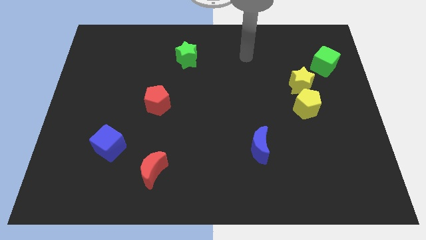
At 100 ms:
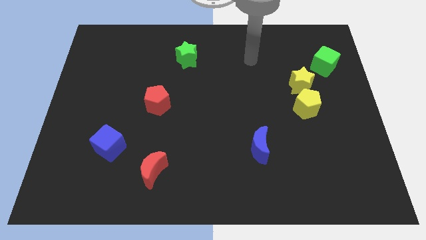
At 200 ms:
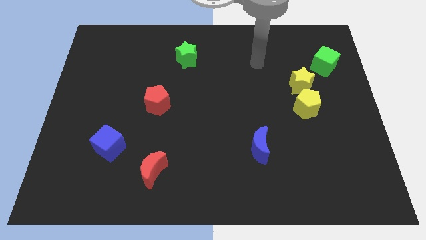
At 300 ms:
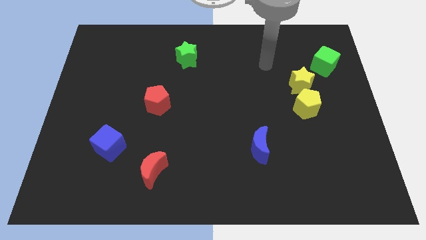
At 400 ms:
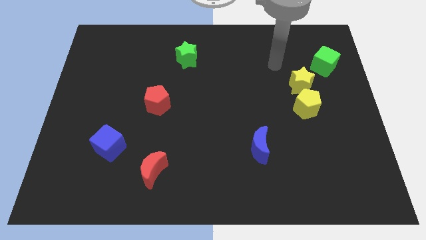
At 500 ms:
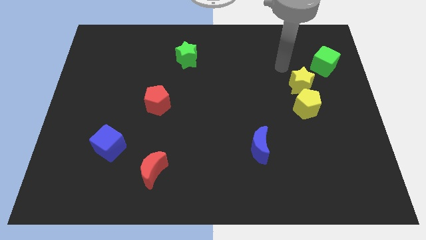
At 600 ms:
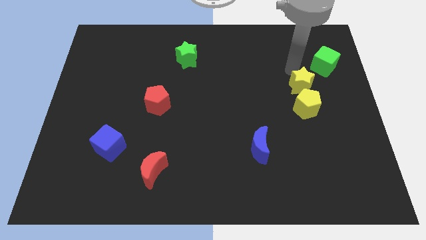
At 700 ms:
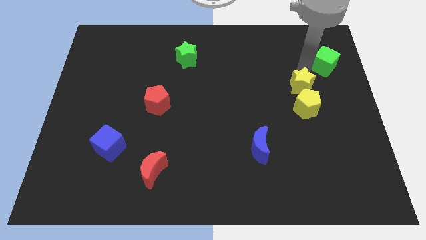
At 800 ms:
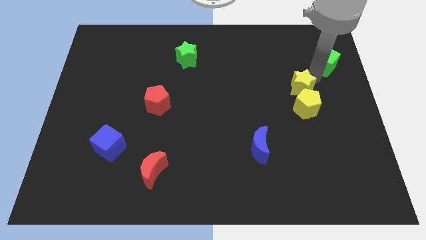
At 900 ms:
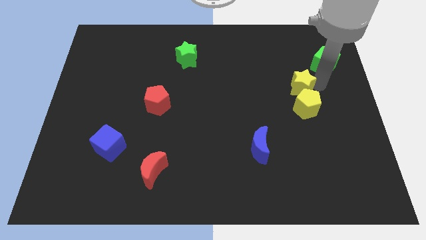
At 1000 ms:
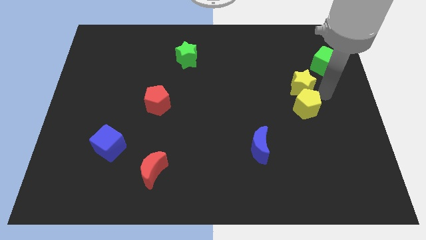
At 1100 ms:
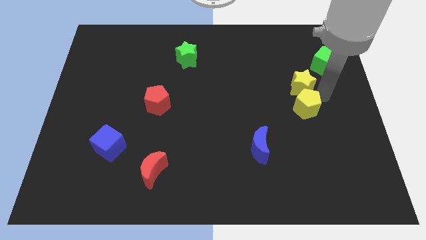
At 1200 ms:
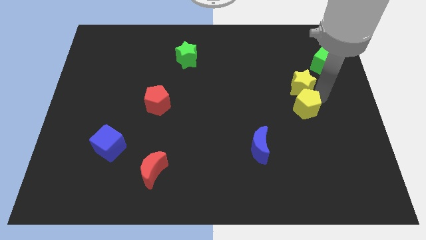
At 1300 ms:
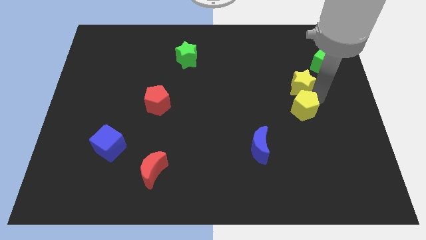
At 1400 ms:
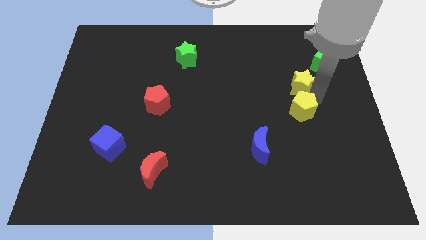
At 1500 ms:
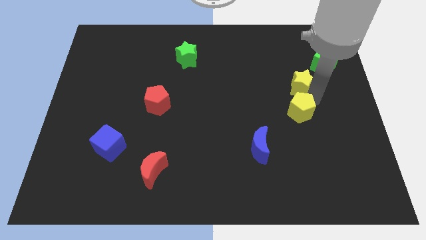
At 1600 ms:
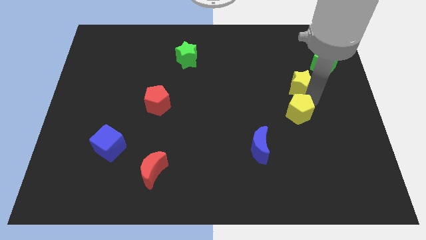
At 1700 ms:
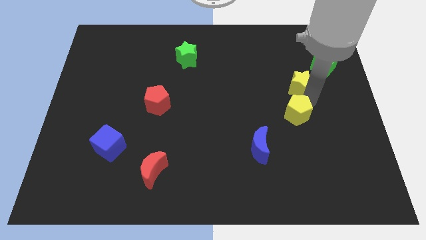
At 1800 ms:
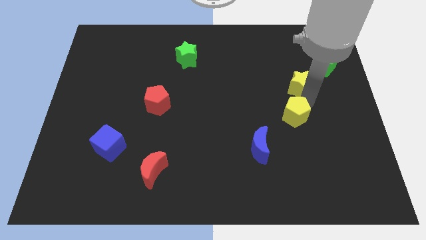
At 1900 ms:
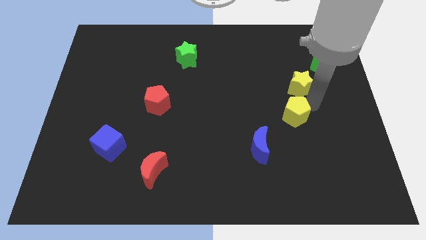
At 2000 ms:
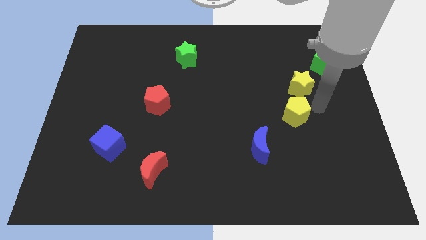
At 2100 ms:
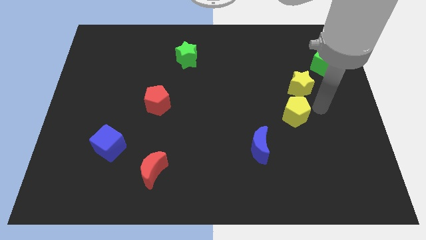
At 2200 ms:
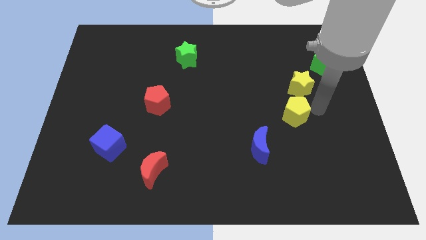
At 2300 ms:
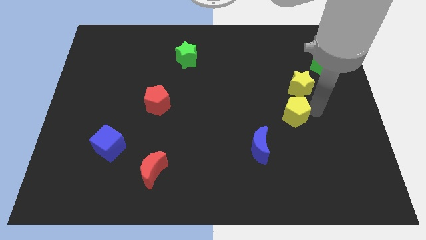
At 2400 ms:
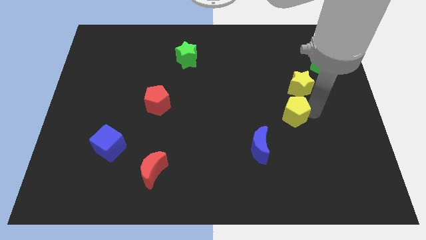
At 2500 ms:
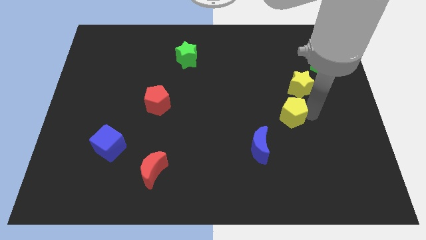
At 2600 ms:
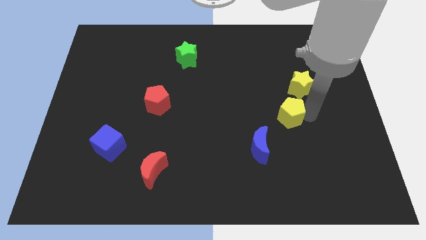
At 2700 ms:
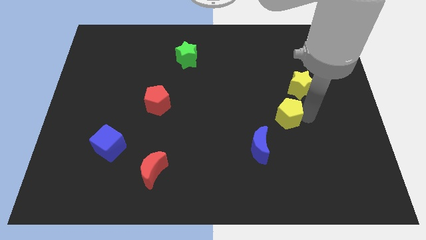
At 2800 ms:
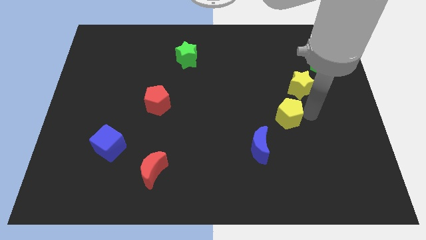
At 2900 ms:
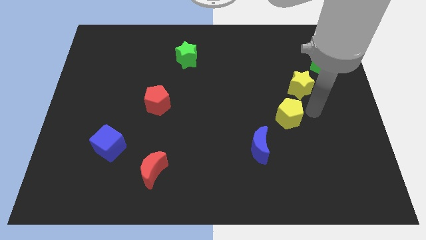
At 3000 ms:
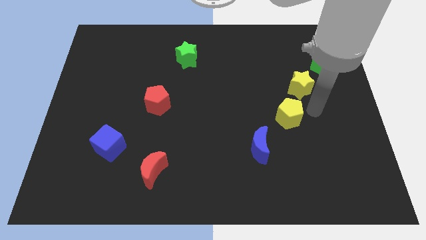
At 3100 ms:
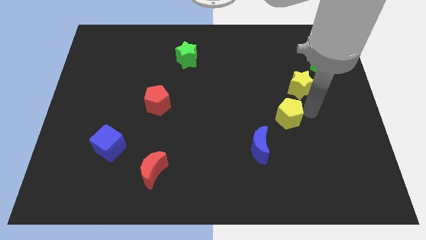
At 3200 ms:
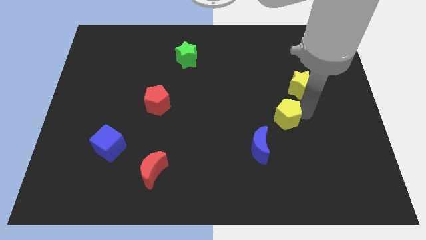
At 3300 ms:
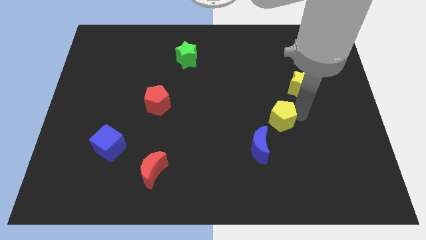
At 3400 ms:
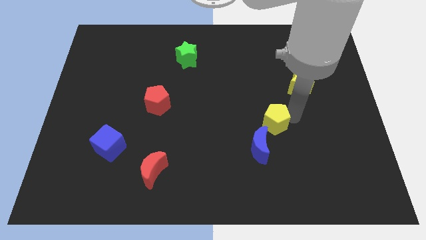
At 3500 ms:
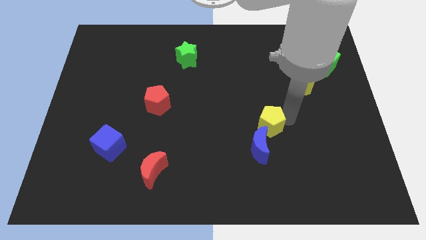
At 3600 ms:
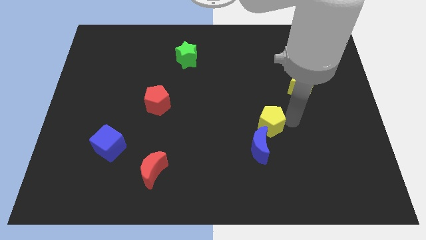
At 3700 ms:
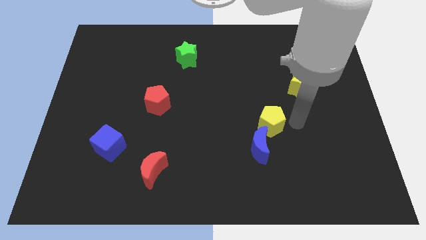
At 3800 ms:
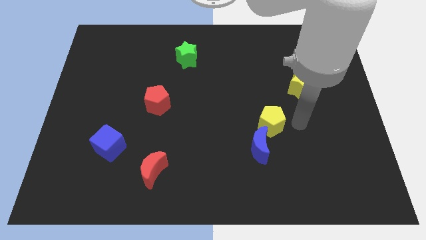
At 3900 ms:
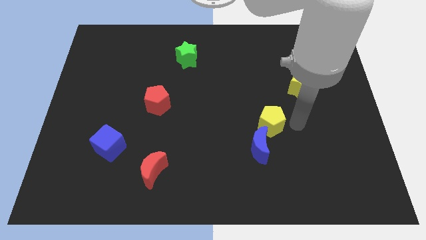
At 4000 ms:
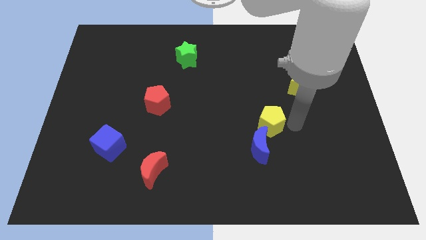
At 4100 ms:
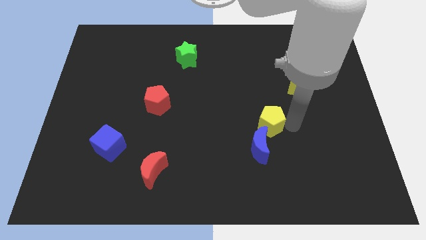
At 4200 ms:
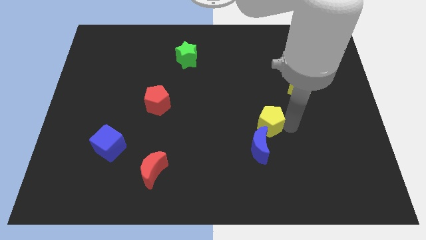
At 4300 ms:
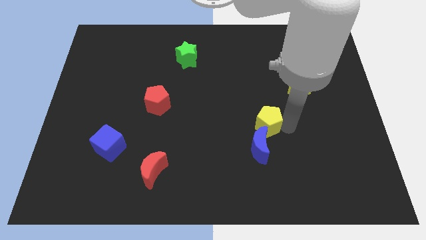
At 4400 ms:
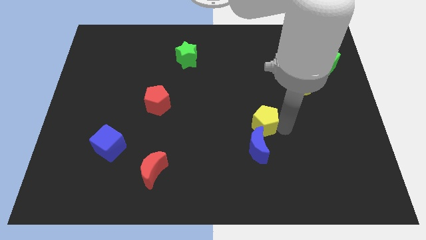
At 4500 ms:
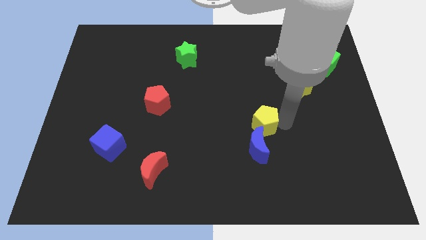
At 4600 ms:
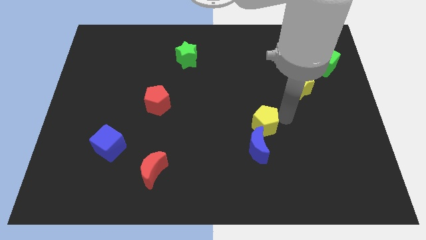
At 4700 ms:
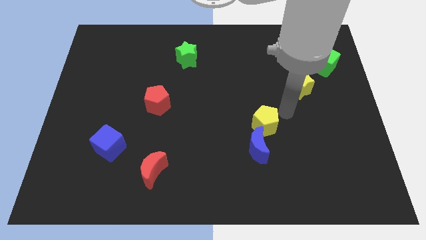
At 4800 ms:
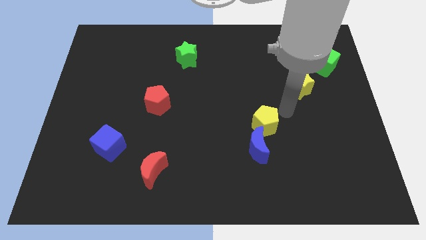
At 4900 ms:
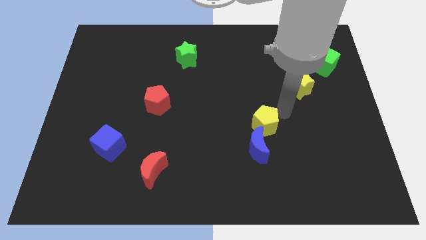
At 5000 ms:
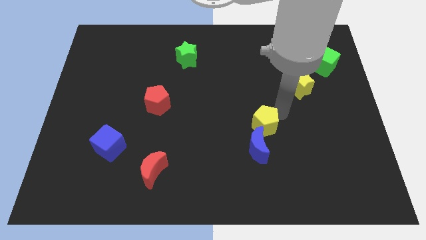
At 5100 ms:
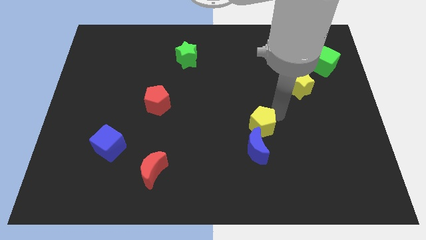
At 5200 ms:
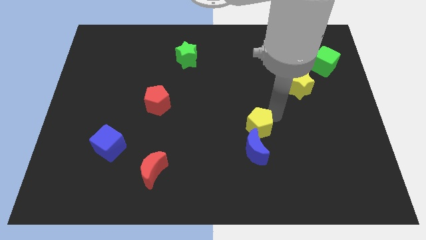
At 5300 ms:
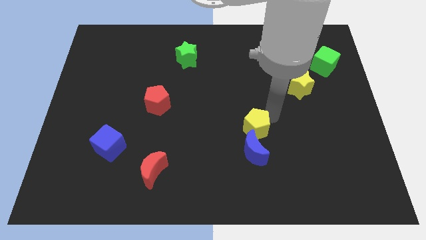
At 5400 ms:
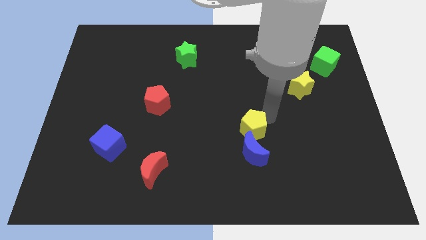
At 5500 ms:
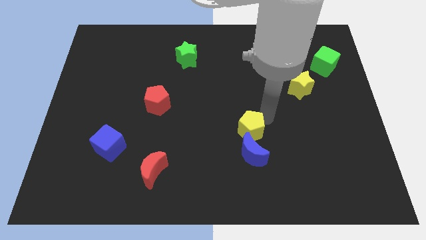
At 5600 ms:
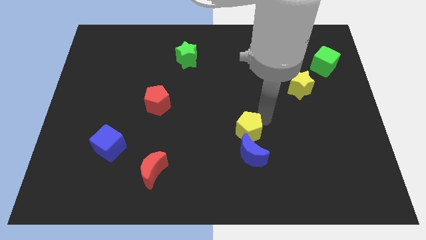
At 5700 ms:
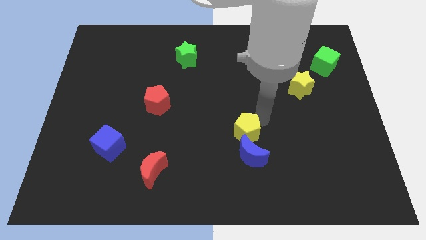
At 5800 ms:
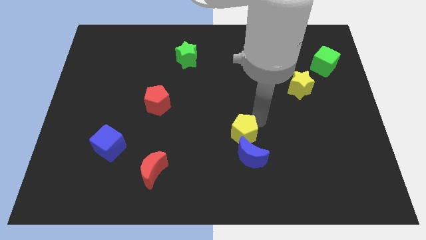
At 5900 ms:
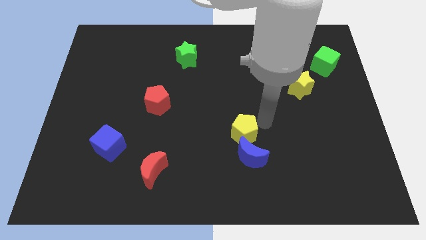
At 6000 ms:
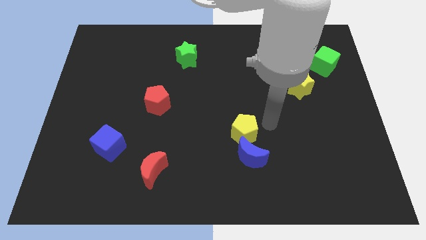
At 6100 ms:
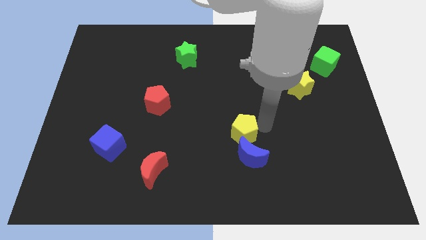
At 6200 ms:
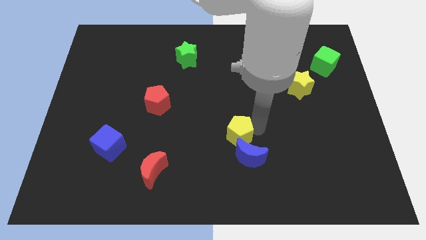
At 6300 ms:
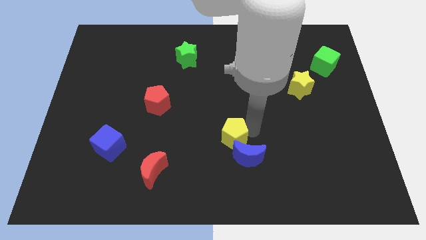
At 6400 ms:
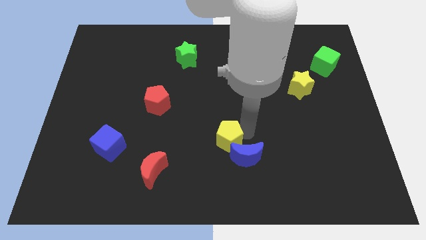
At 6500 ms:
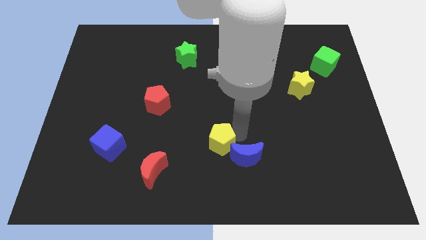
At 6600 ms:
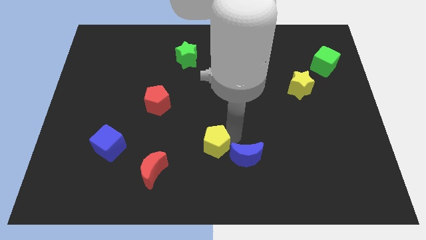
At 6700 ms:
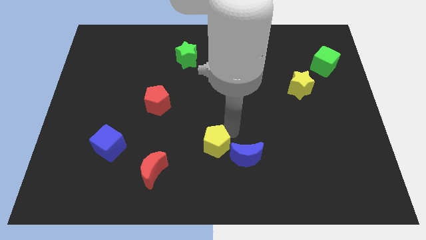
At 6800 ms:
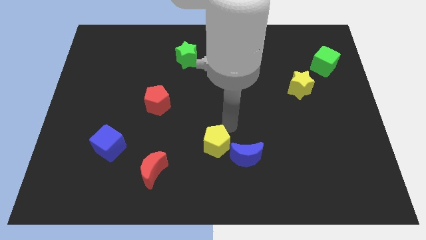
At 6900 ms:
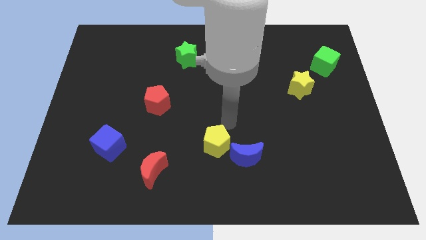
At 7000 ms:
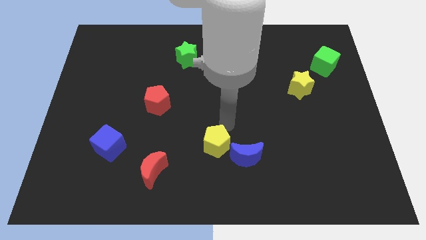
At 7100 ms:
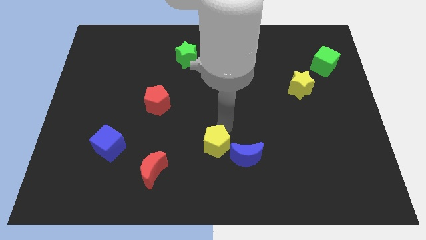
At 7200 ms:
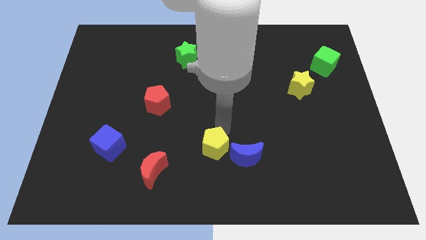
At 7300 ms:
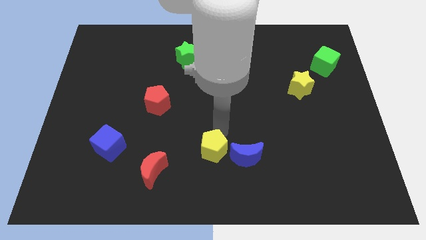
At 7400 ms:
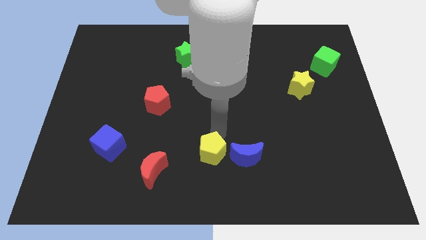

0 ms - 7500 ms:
put the yellow pentagon to the right of the red moon

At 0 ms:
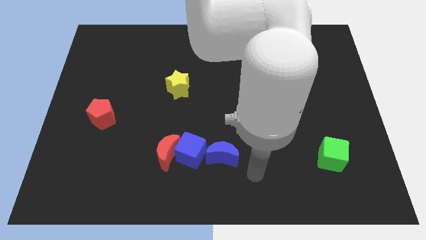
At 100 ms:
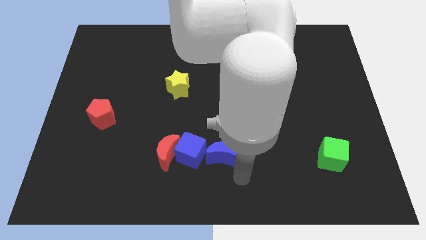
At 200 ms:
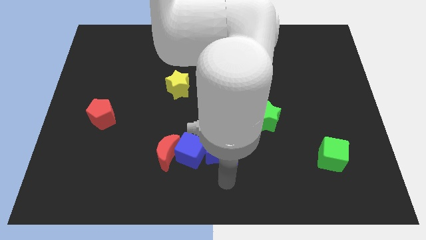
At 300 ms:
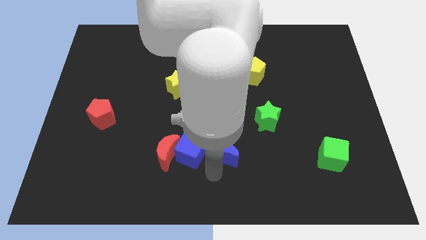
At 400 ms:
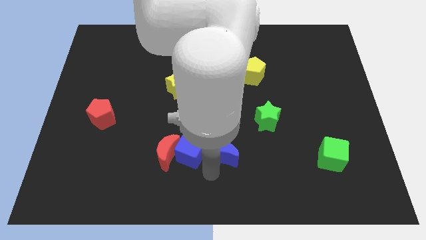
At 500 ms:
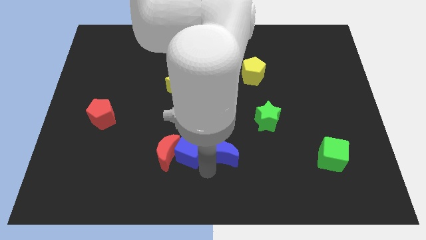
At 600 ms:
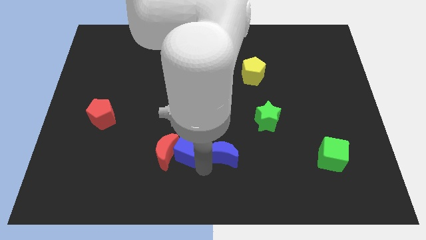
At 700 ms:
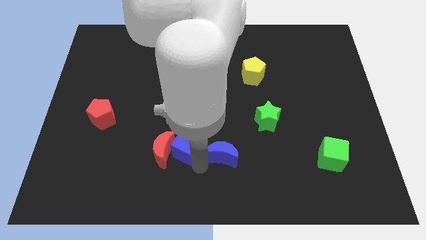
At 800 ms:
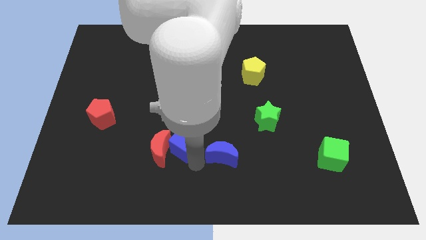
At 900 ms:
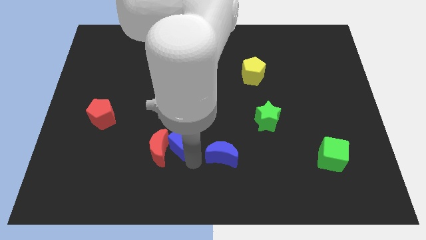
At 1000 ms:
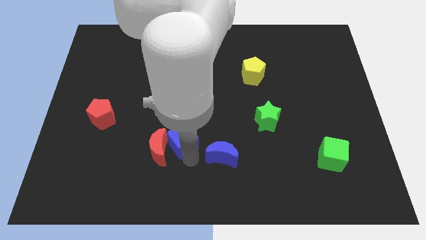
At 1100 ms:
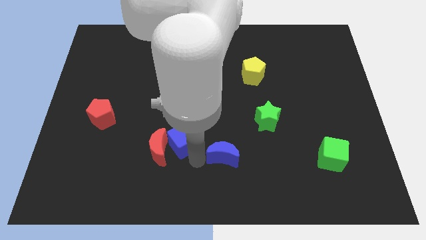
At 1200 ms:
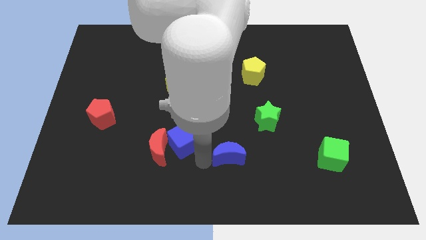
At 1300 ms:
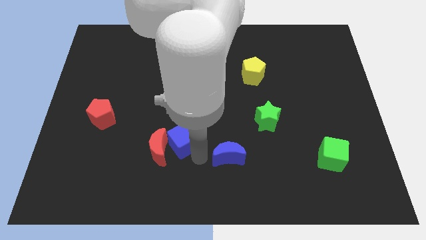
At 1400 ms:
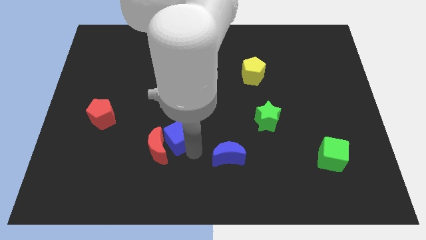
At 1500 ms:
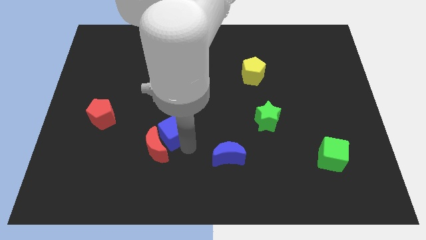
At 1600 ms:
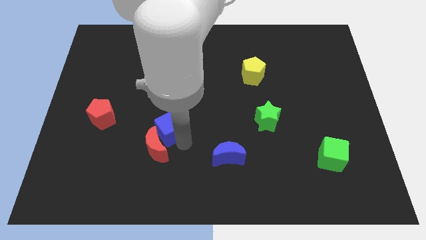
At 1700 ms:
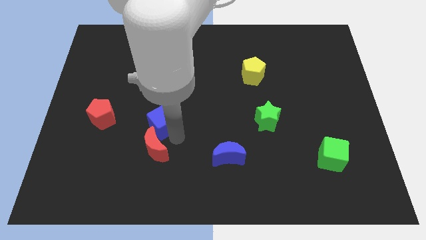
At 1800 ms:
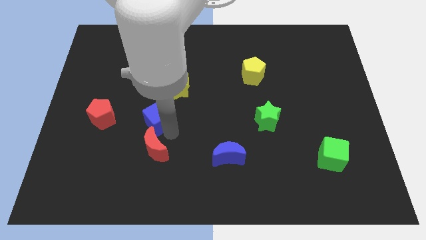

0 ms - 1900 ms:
push the blue cube to the bottom left side of the yellow star
